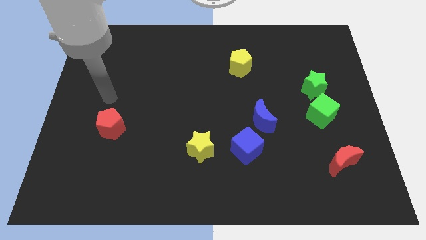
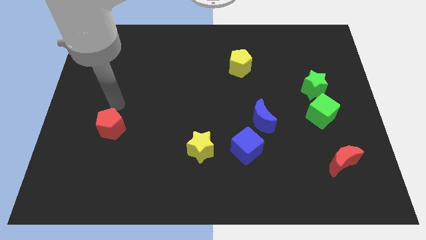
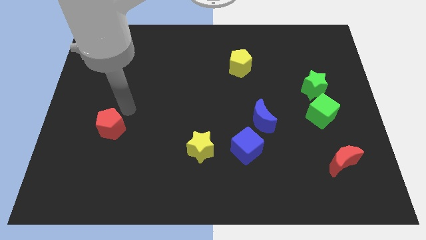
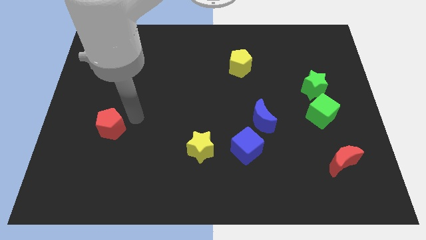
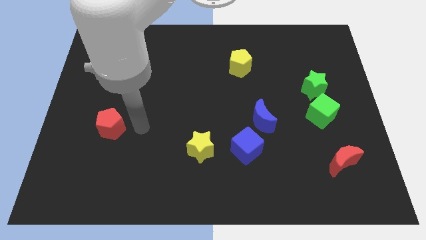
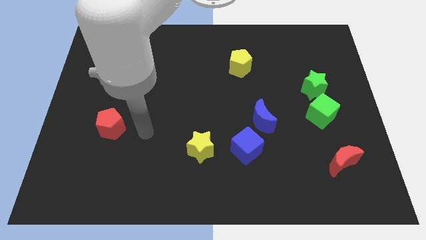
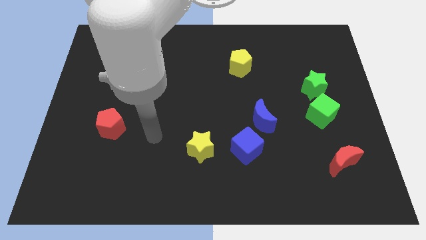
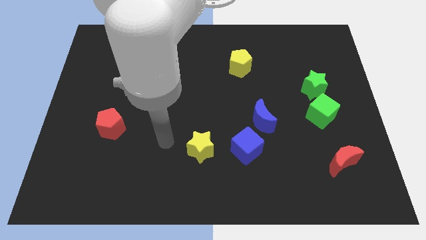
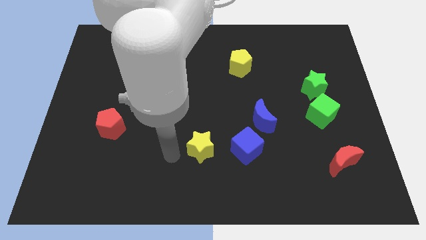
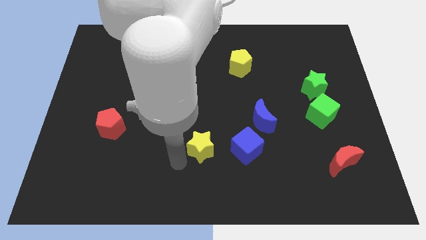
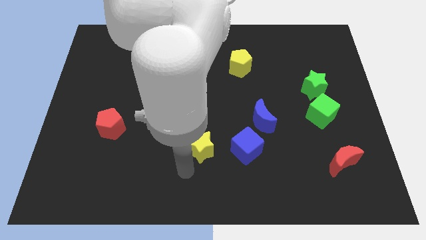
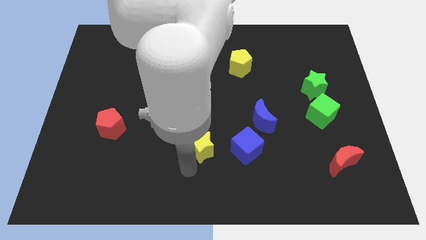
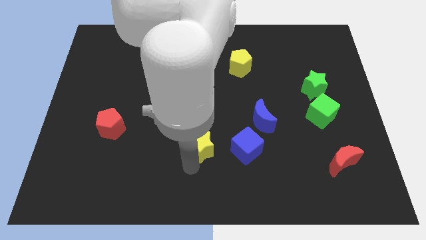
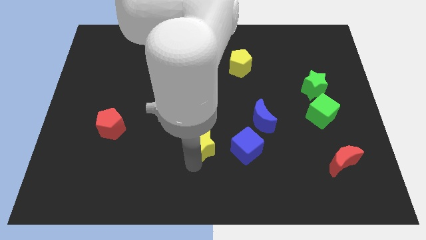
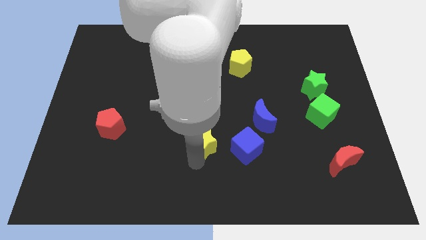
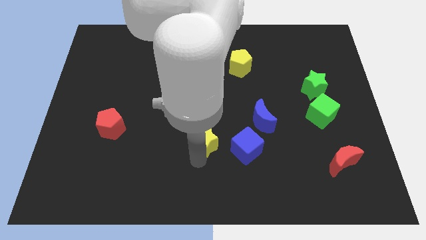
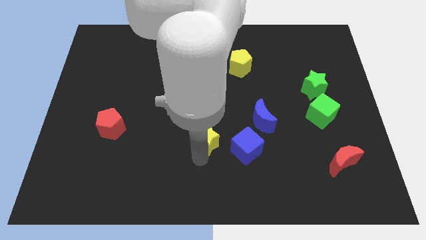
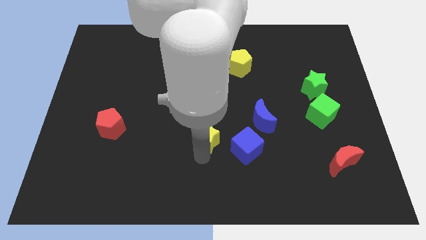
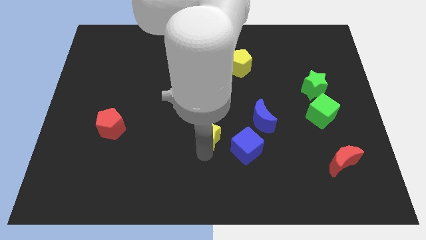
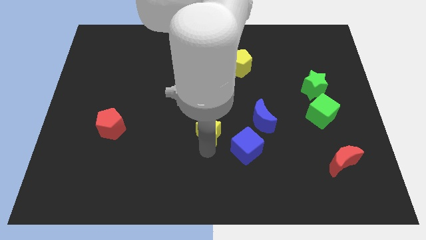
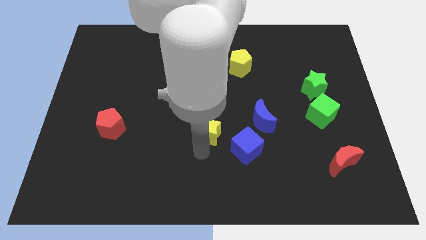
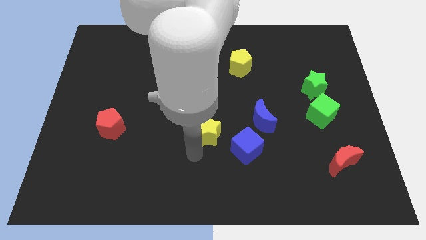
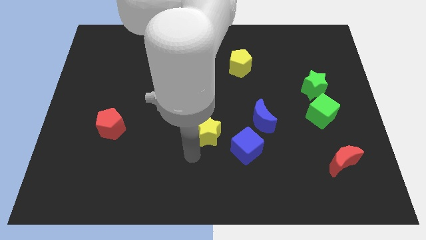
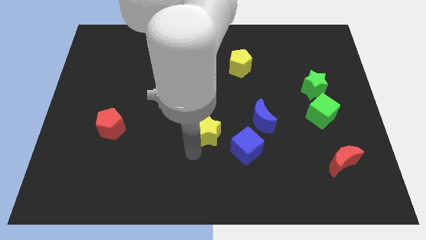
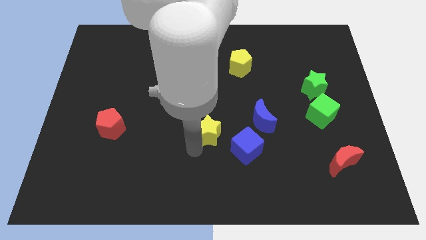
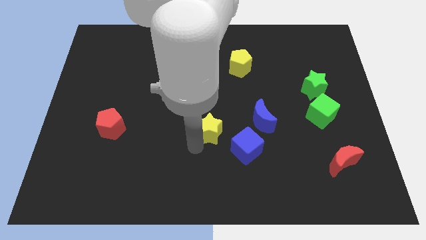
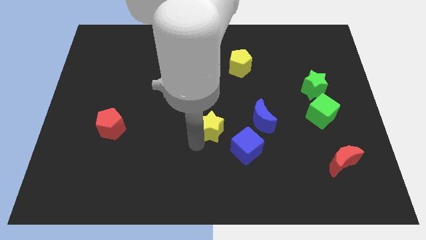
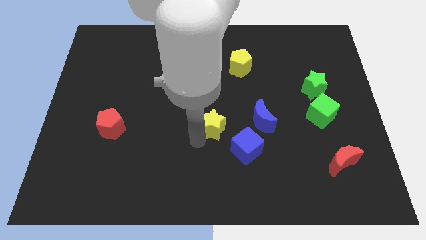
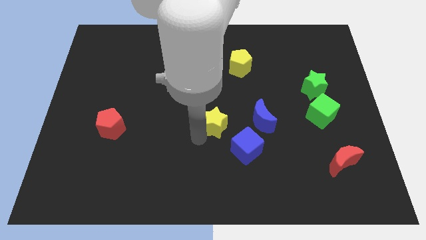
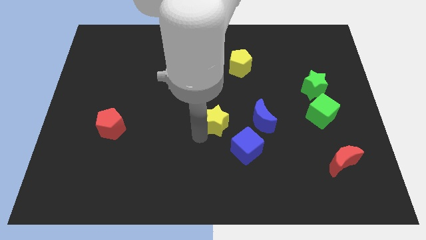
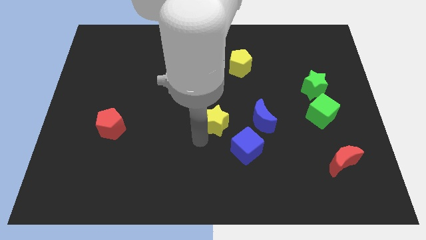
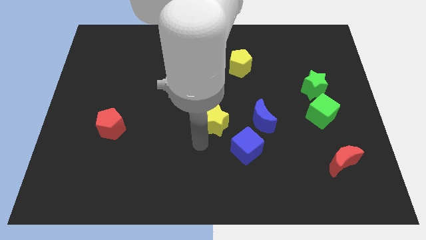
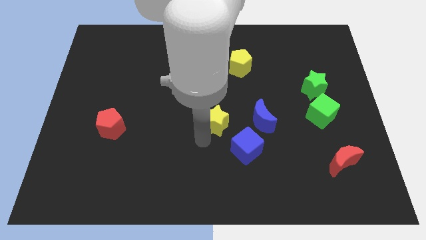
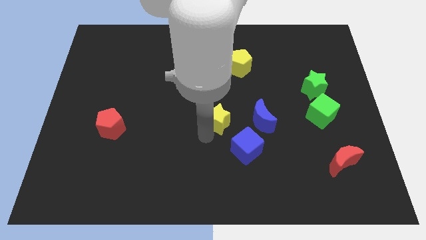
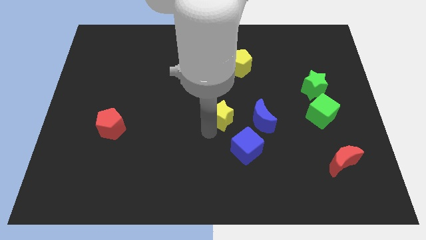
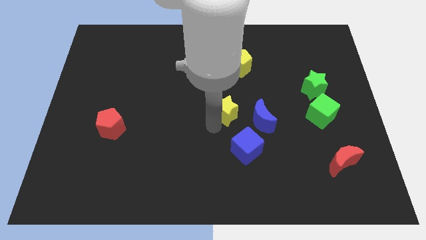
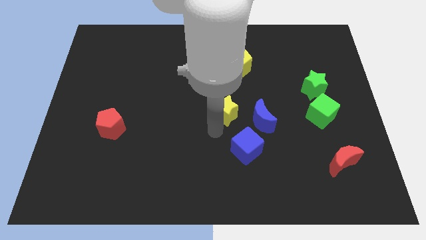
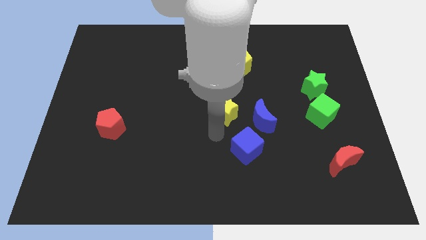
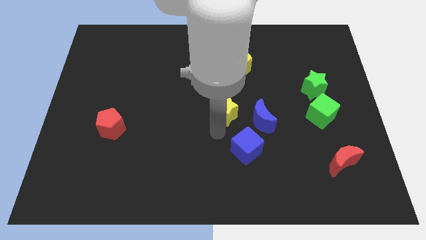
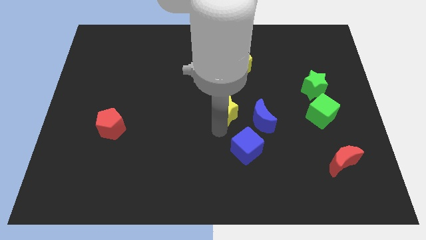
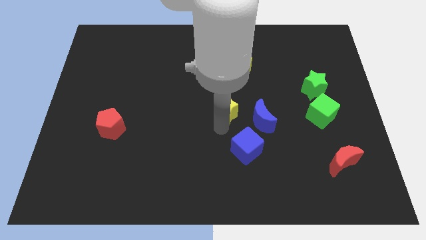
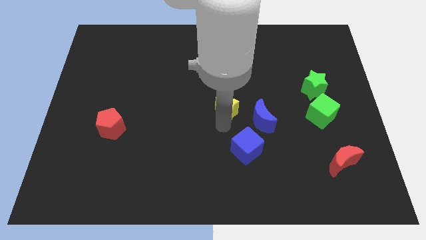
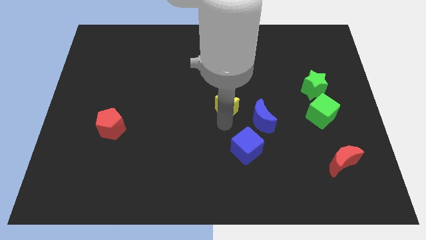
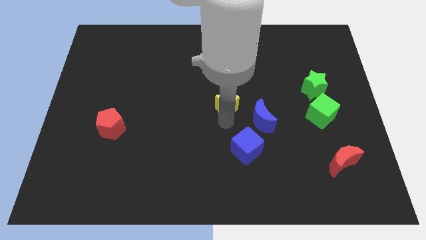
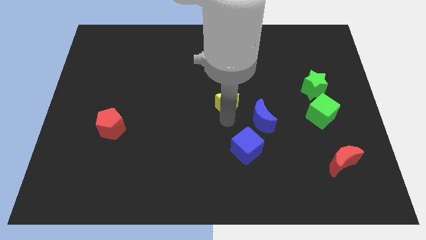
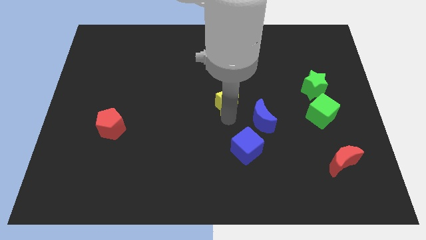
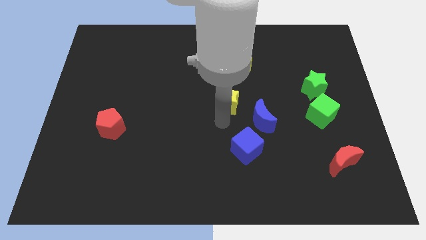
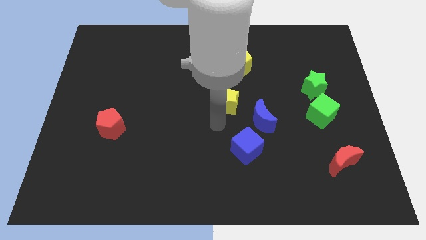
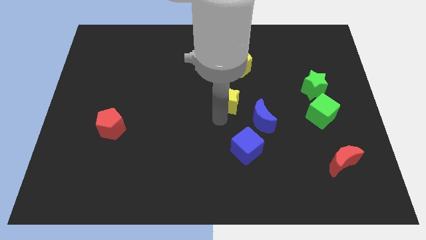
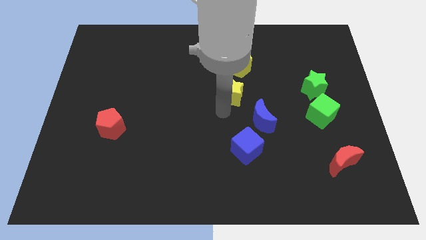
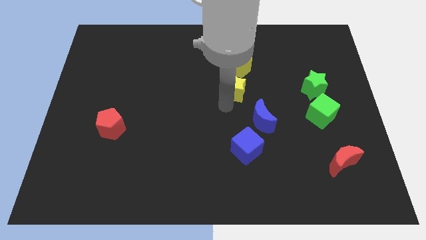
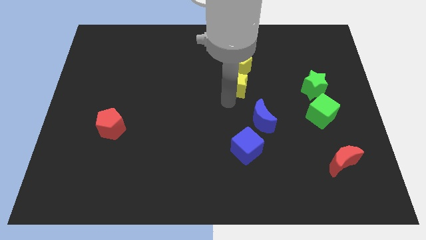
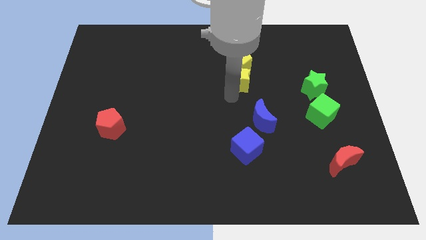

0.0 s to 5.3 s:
put the yellow star towards the yellow pentagon

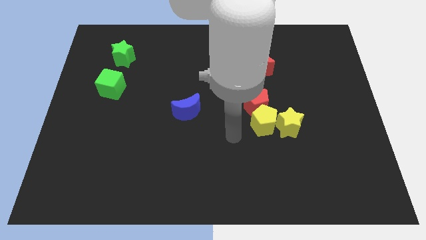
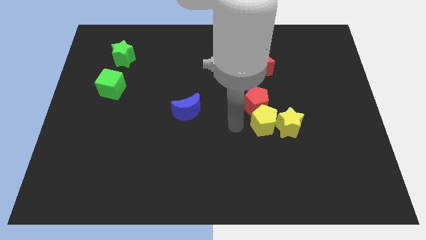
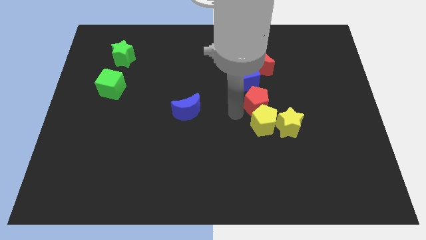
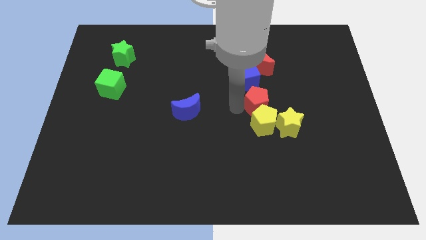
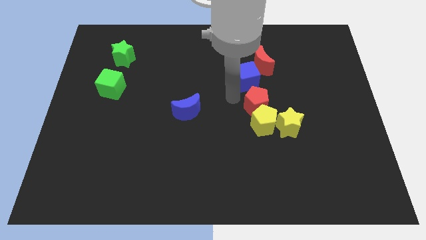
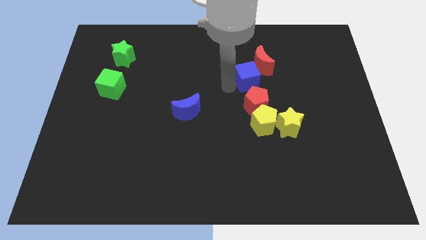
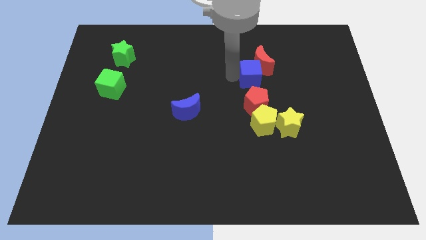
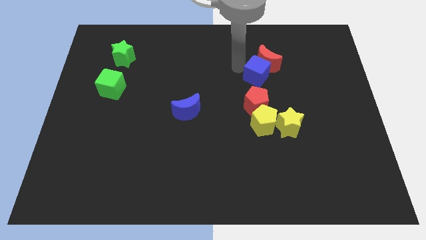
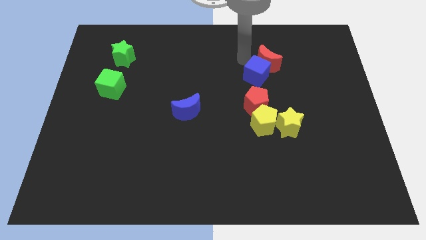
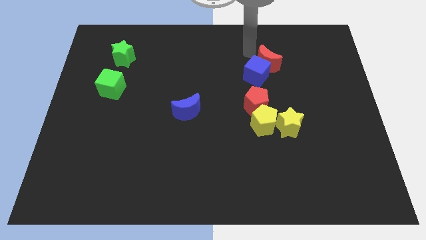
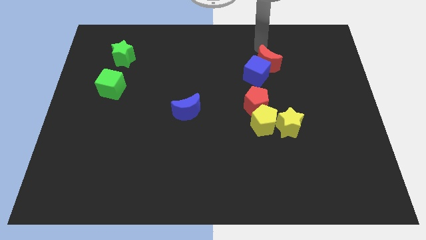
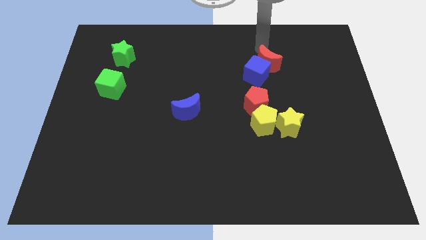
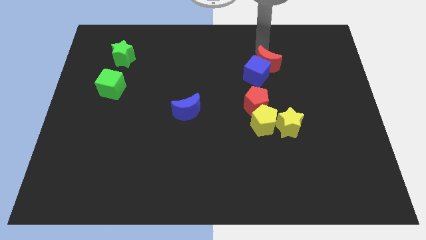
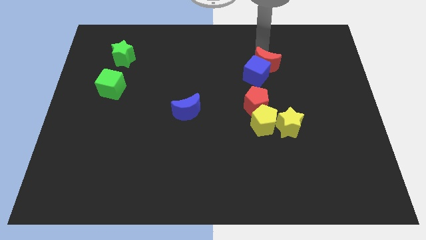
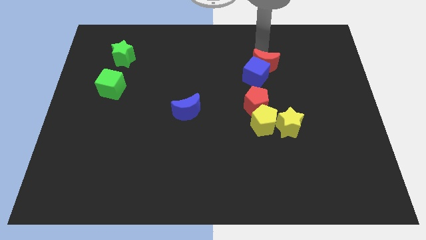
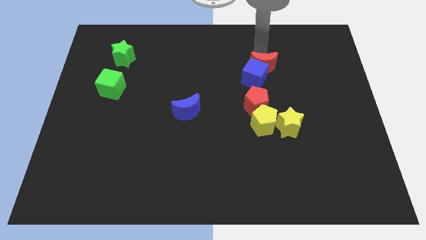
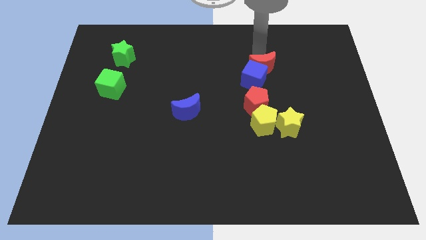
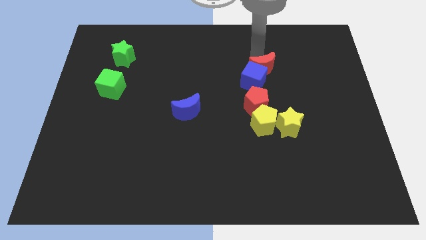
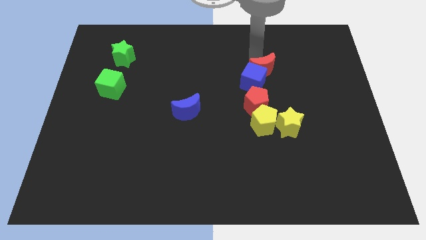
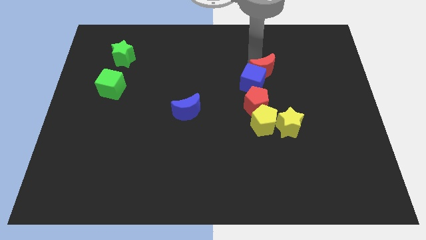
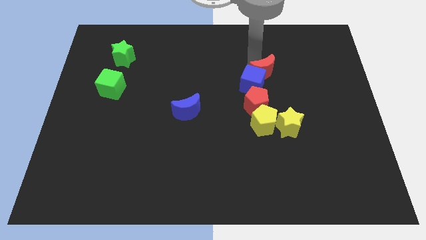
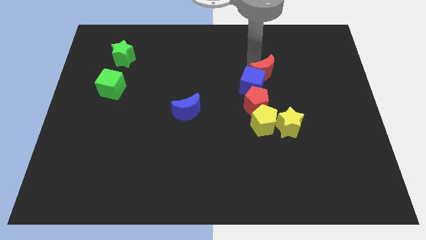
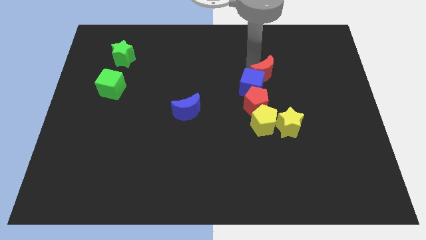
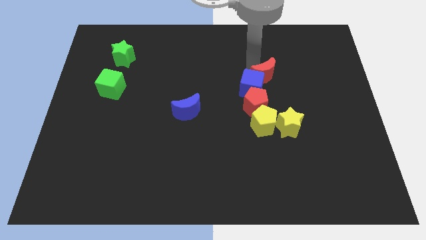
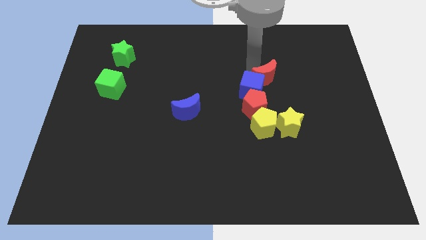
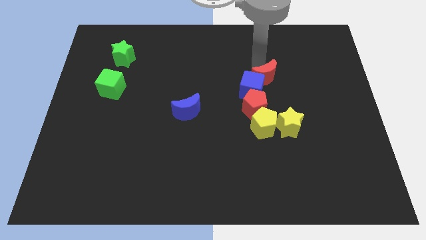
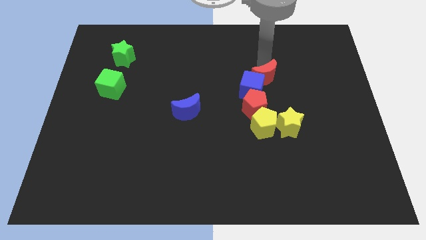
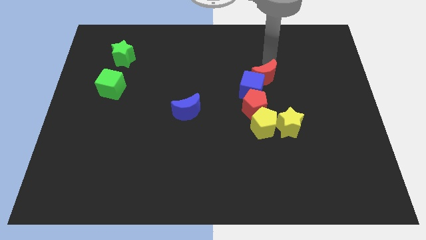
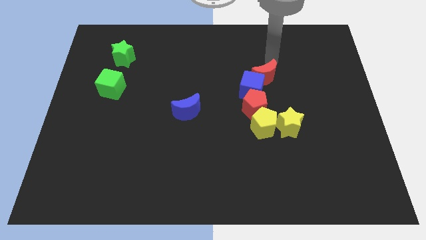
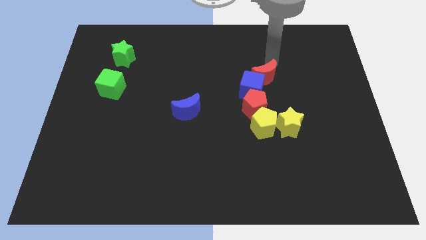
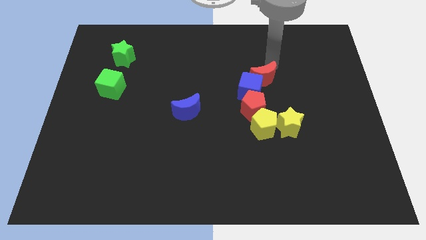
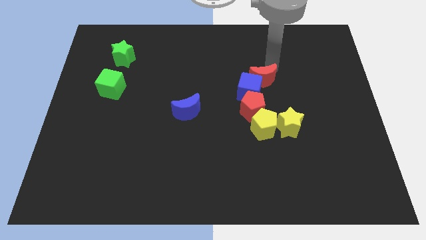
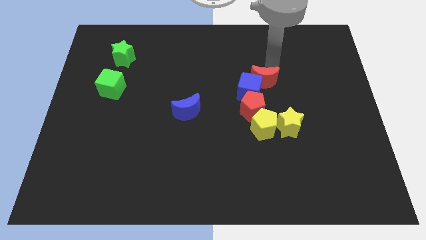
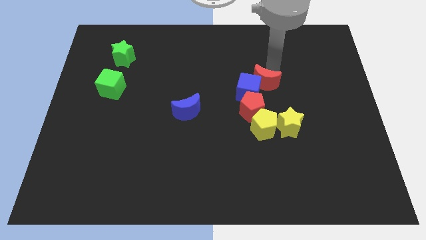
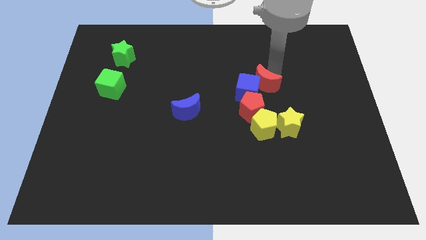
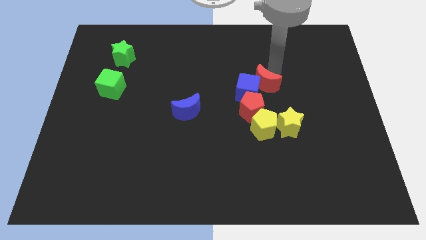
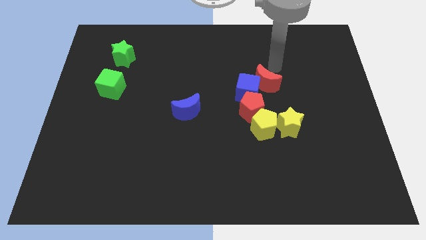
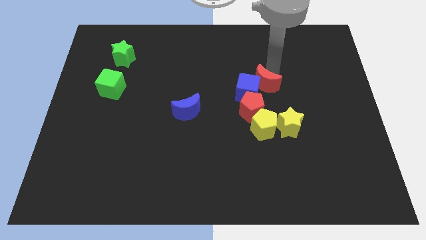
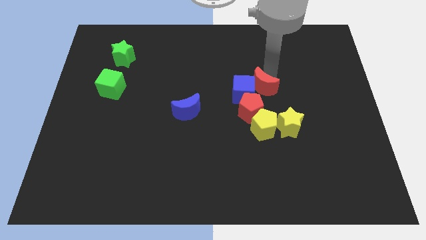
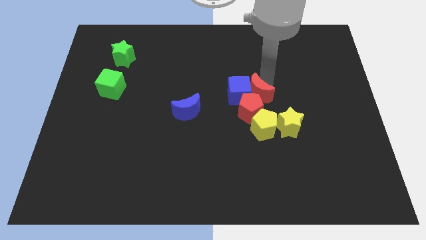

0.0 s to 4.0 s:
put the red moon towards the red pentagon
